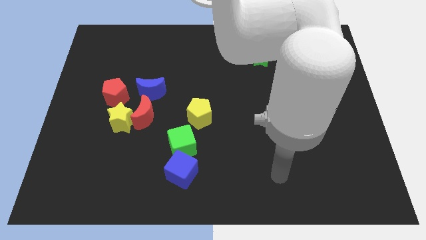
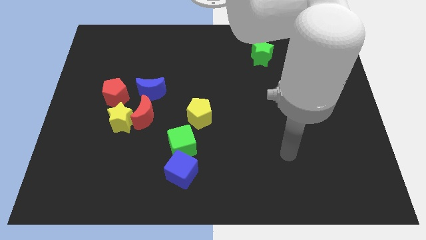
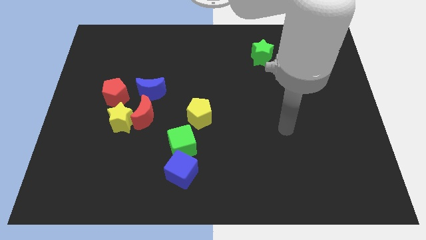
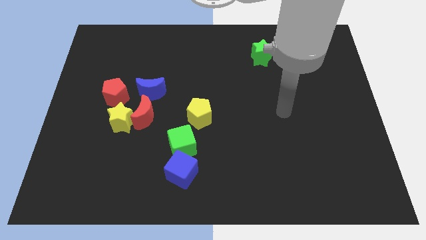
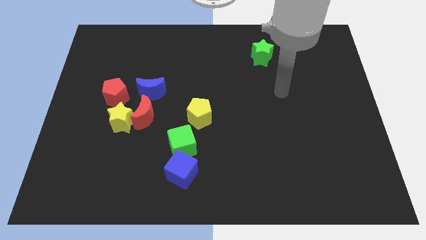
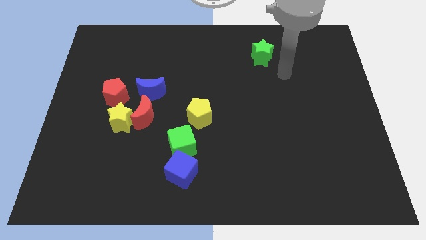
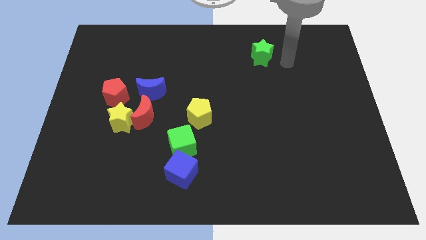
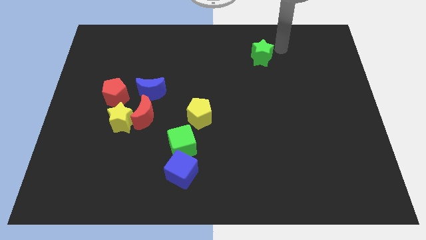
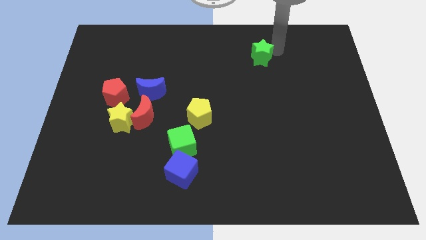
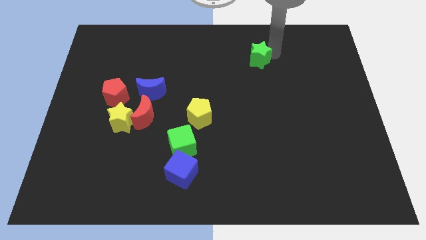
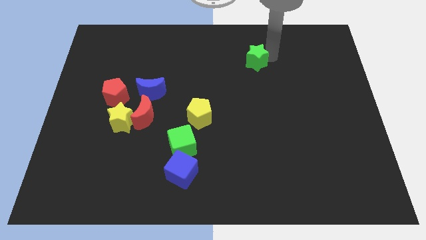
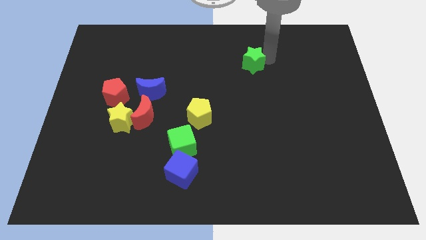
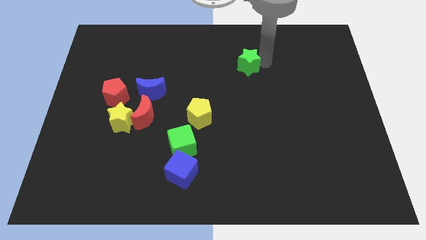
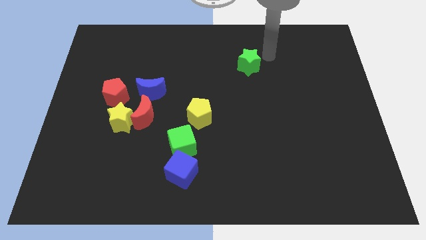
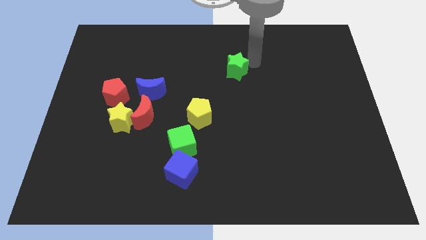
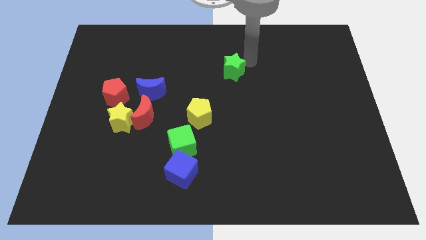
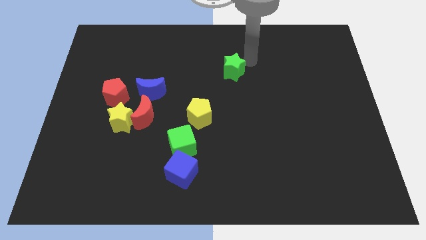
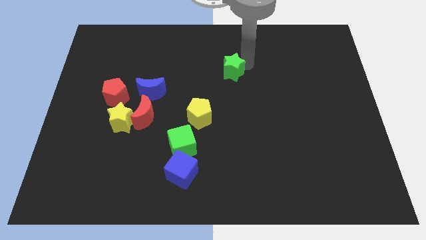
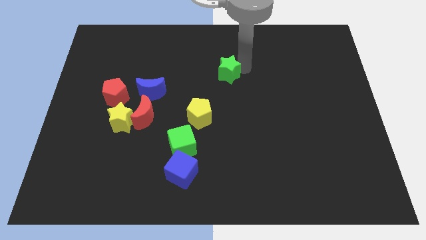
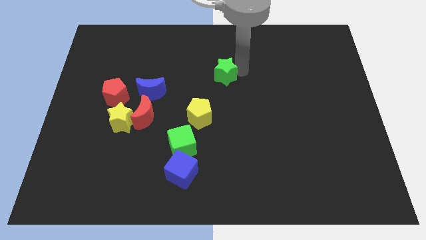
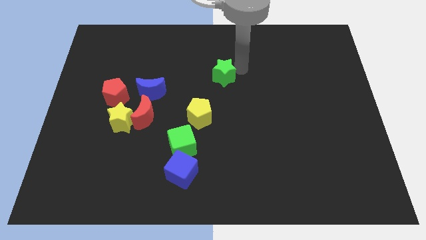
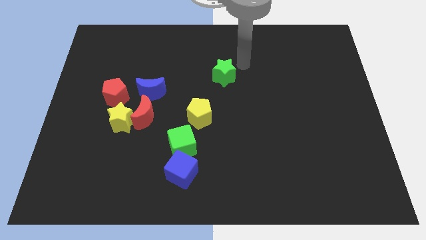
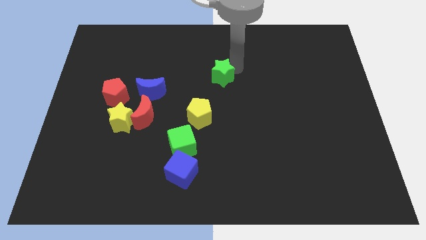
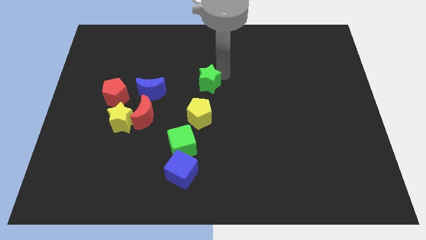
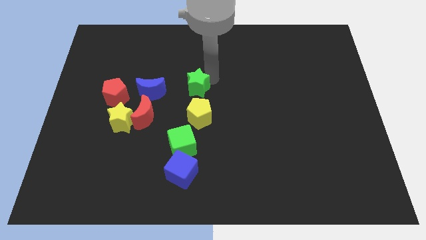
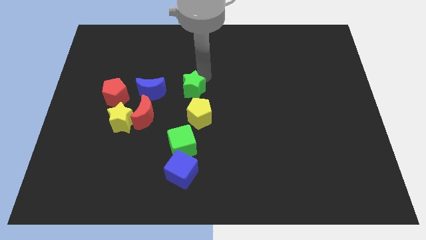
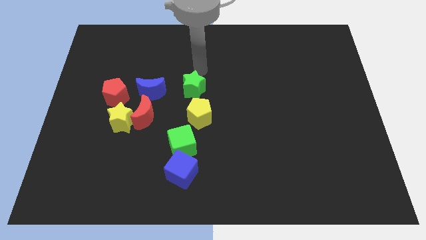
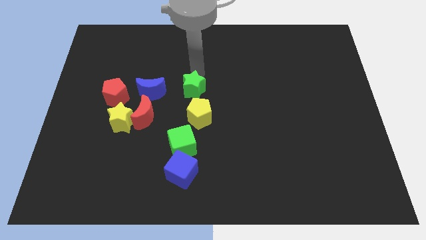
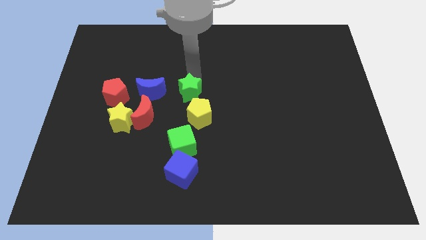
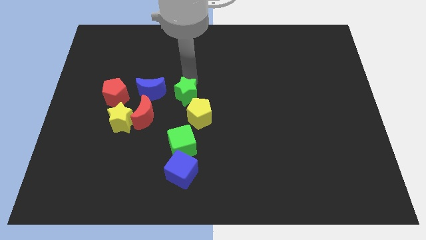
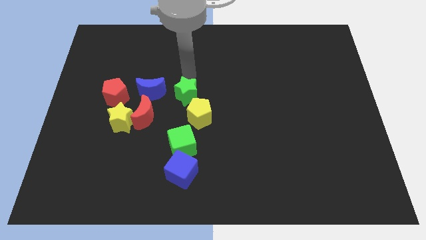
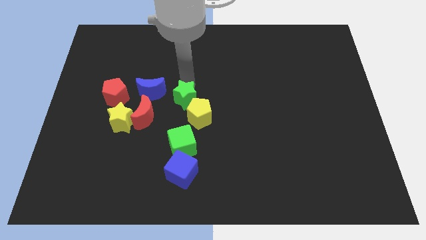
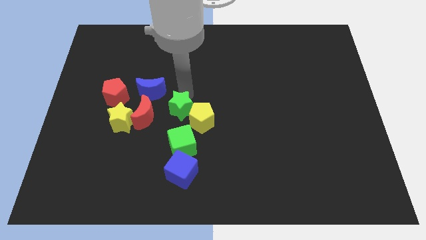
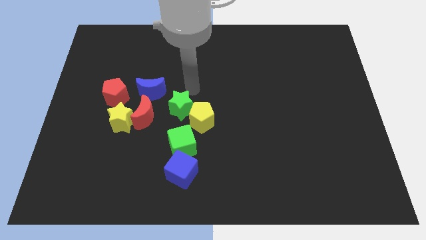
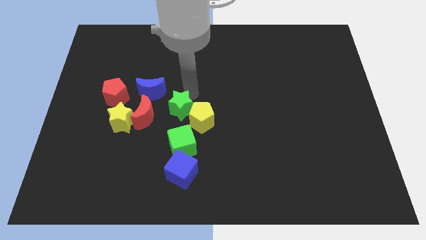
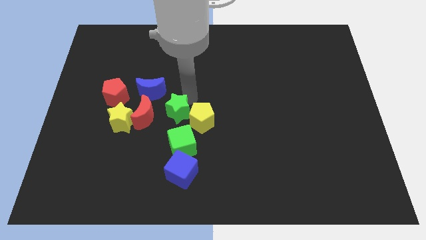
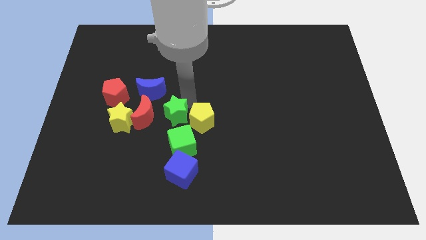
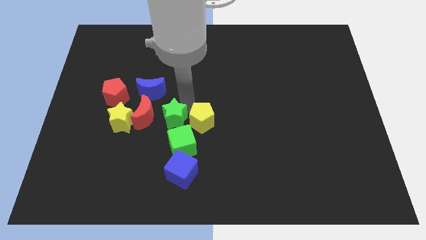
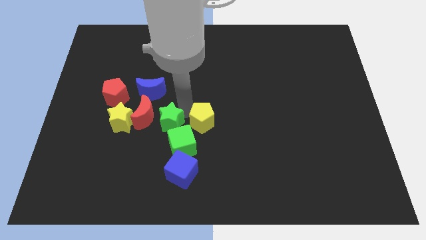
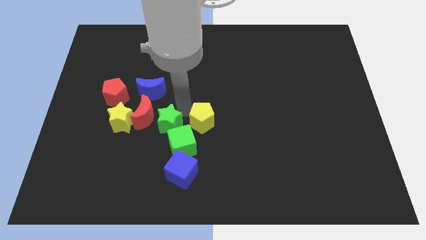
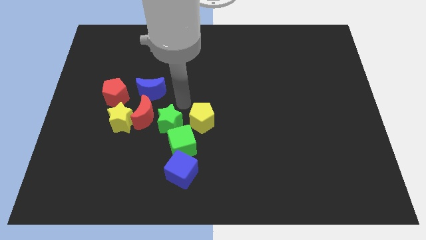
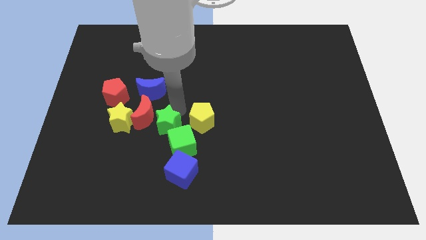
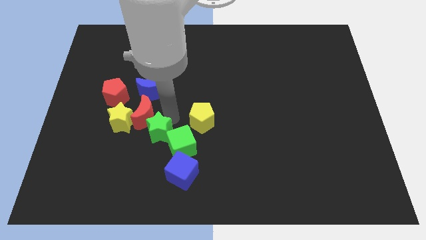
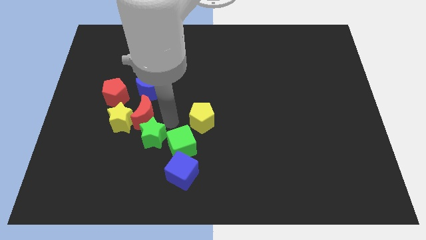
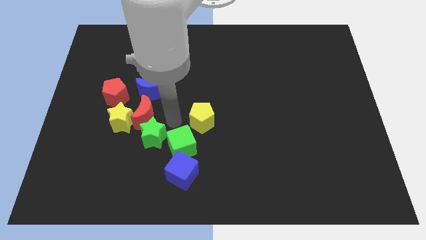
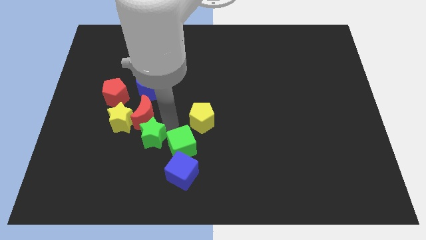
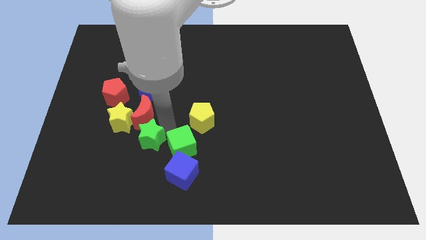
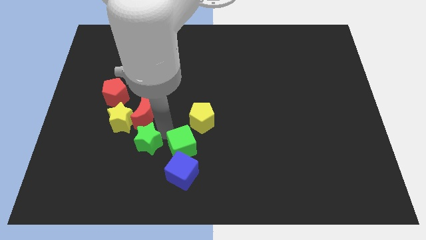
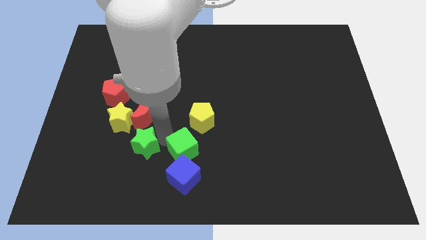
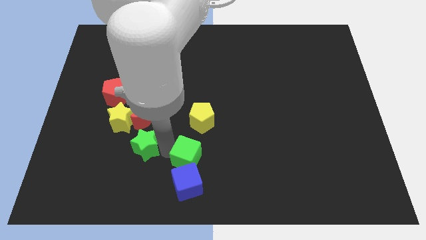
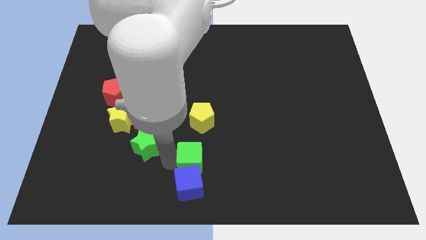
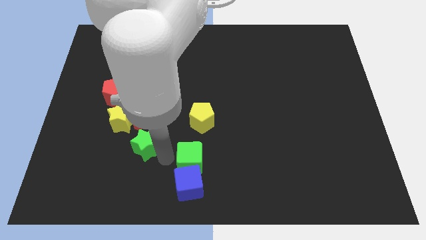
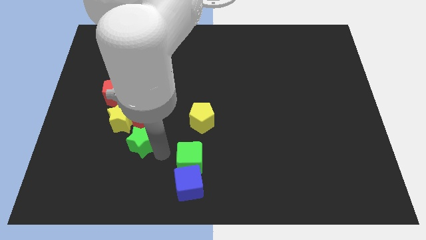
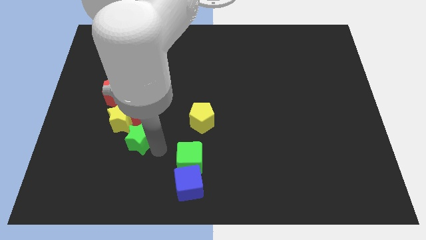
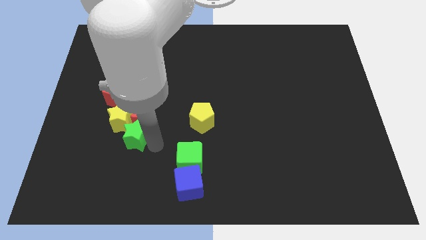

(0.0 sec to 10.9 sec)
move the green star next to the yellow star

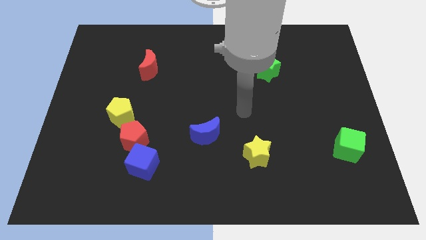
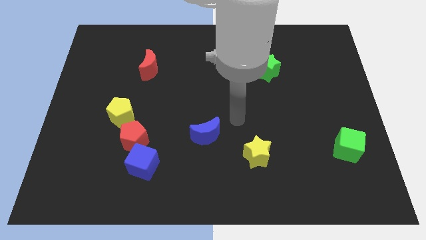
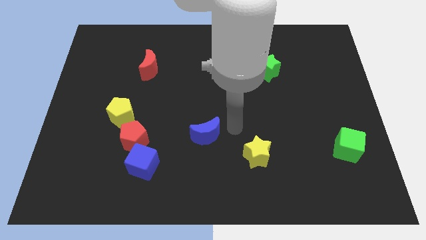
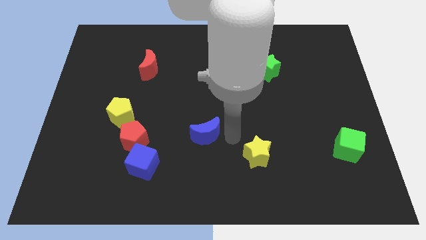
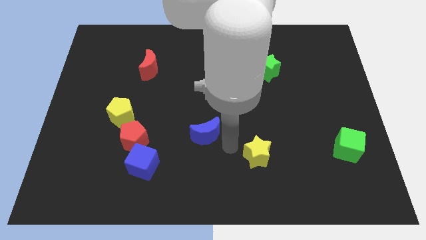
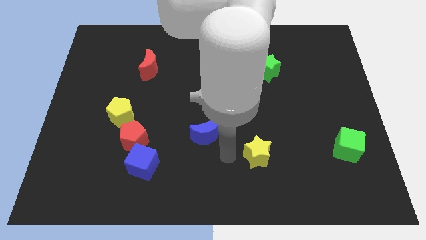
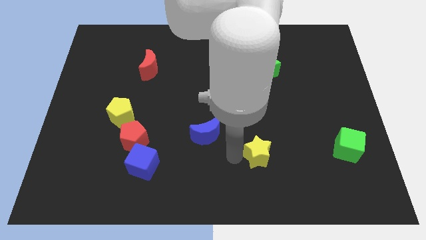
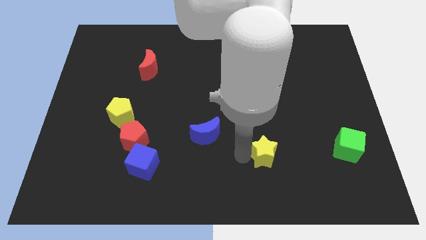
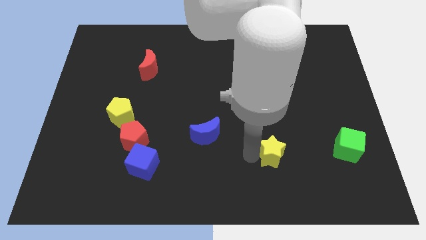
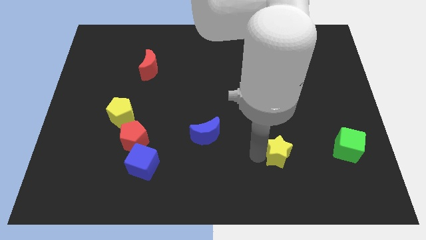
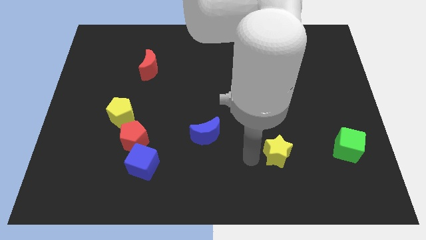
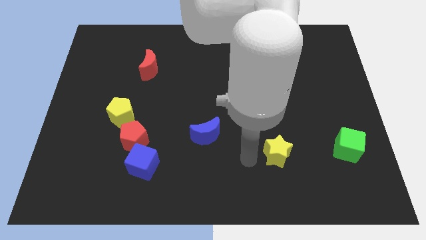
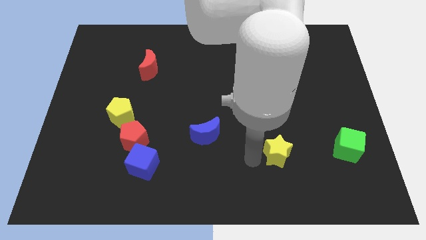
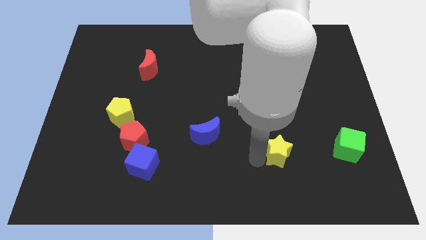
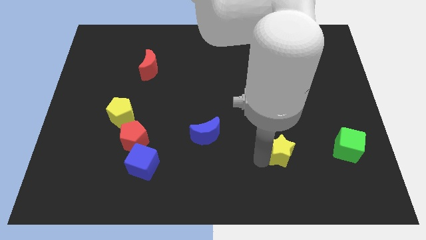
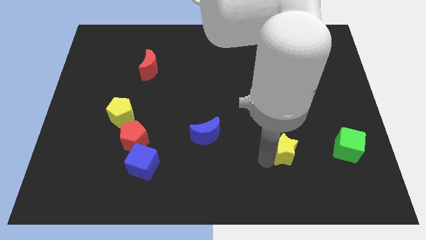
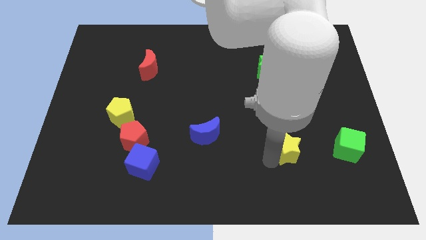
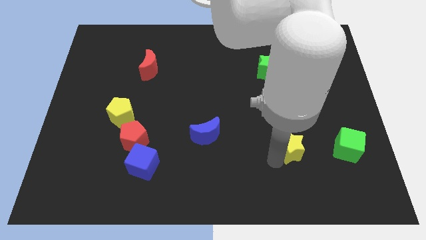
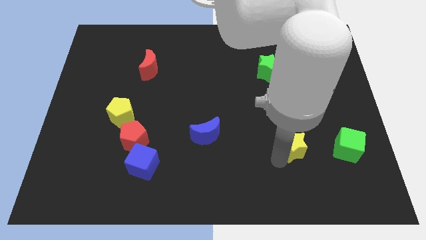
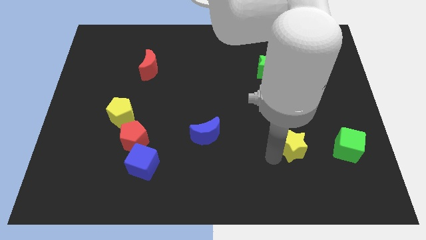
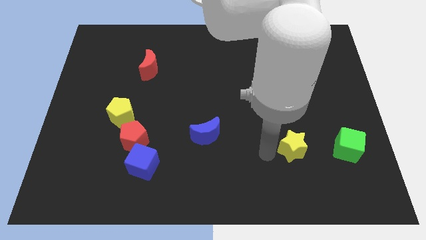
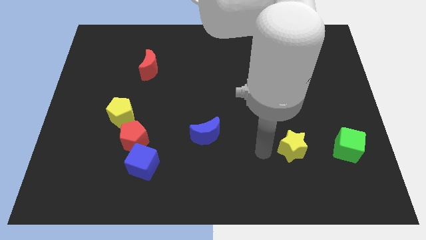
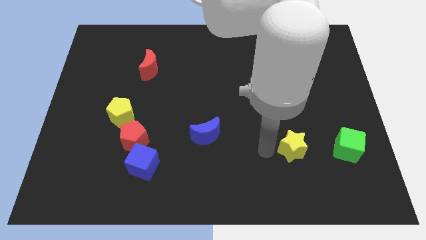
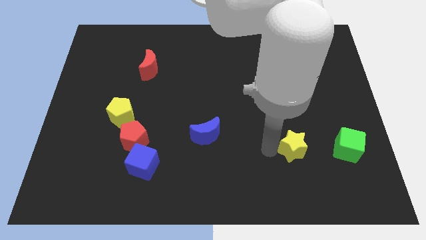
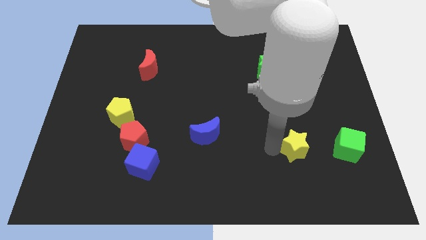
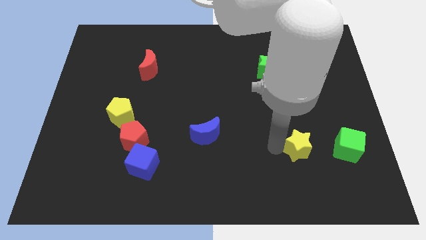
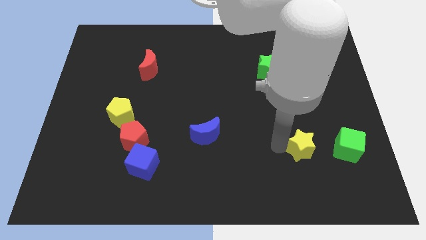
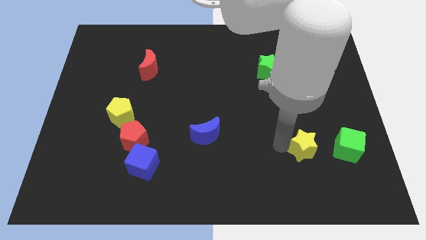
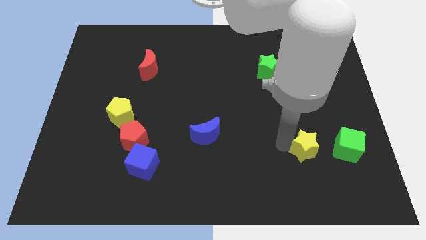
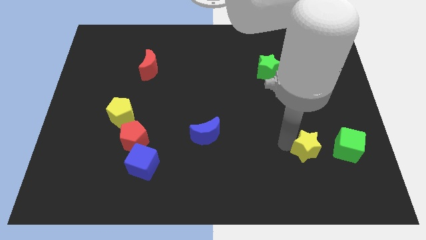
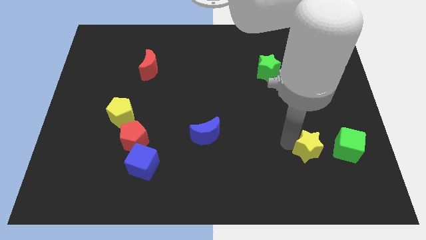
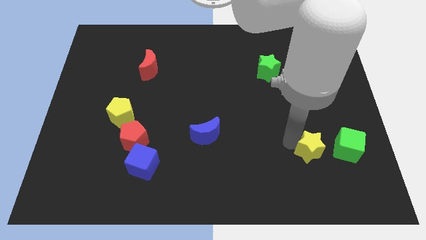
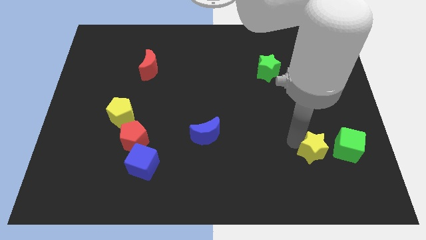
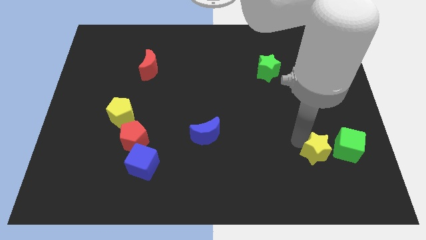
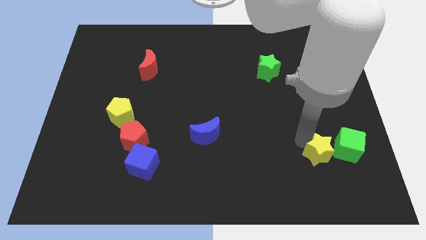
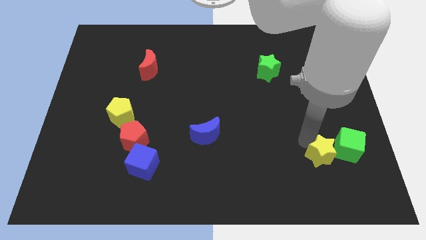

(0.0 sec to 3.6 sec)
put the yellow star to the green cube
